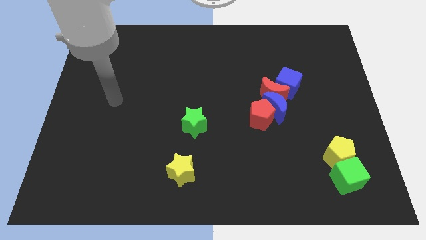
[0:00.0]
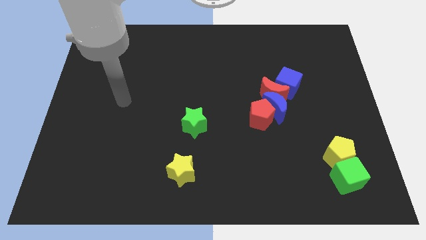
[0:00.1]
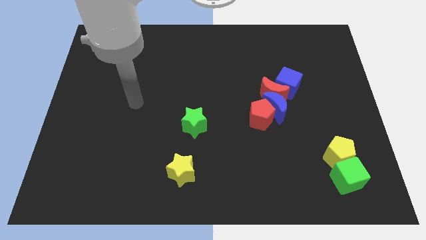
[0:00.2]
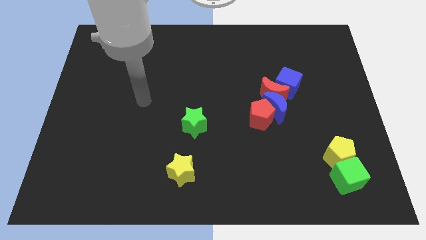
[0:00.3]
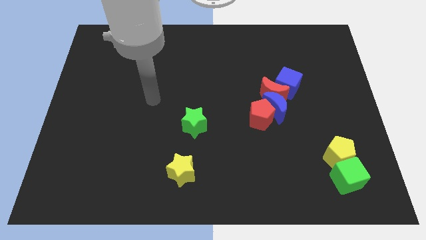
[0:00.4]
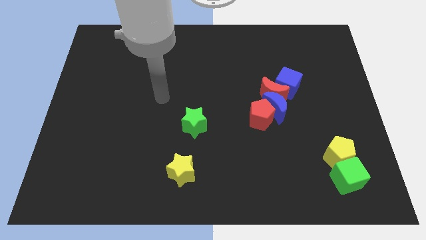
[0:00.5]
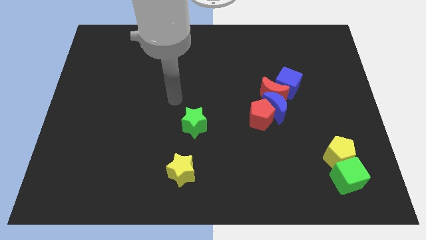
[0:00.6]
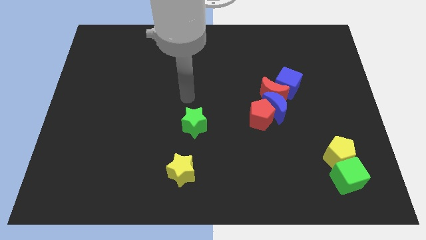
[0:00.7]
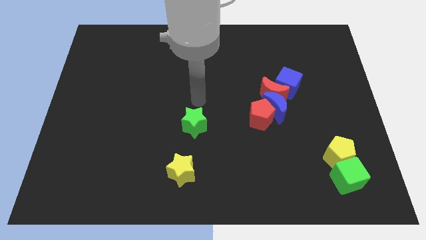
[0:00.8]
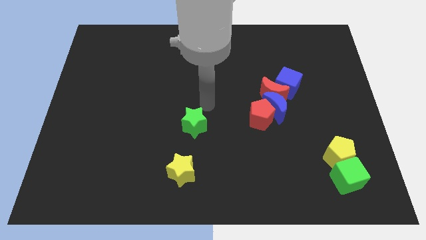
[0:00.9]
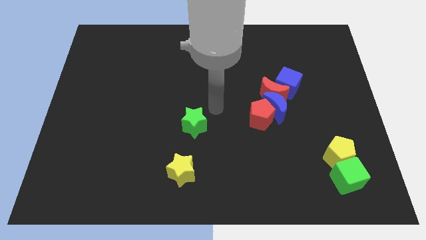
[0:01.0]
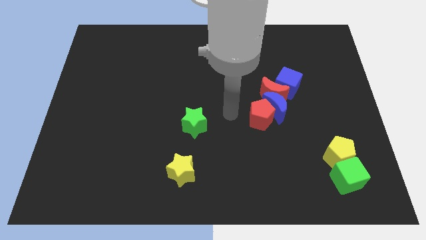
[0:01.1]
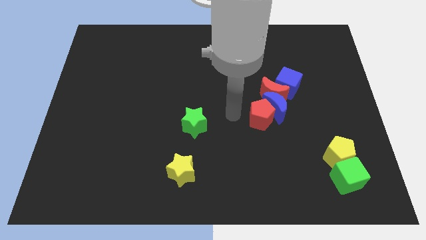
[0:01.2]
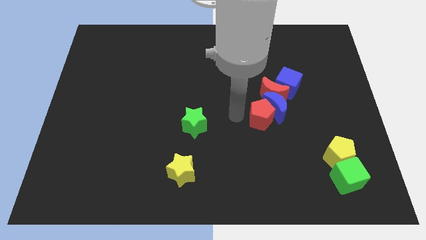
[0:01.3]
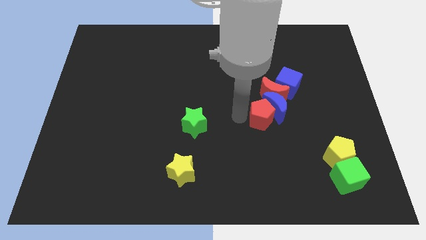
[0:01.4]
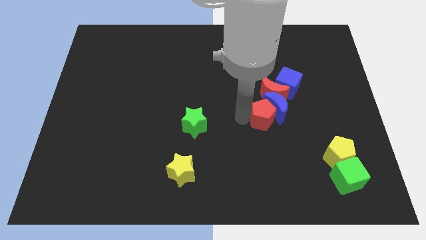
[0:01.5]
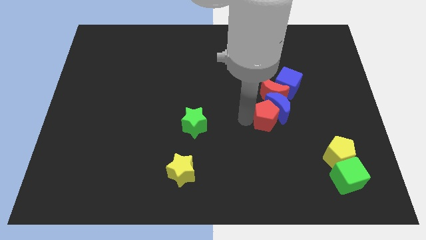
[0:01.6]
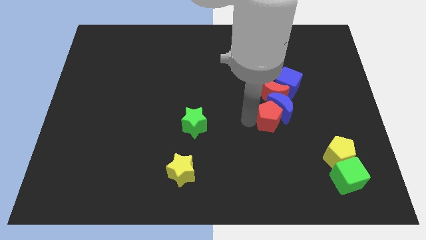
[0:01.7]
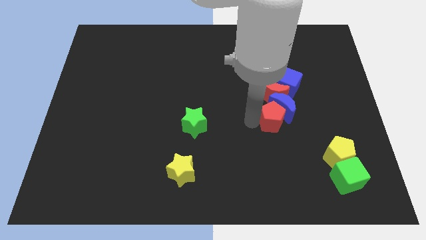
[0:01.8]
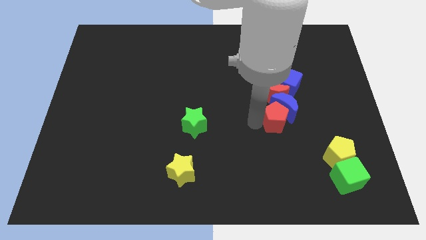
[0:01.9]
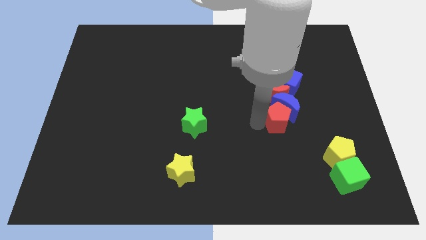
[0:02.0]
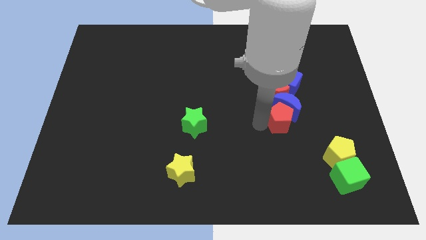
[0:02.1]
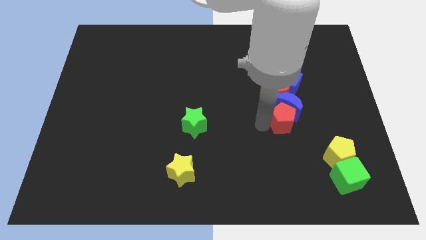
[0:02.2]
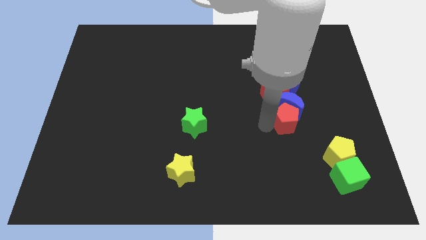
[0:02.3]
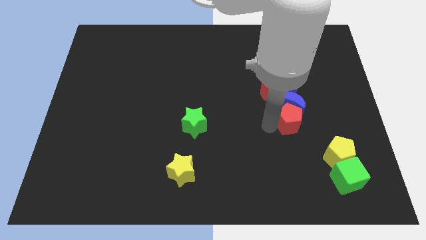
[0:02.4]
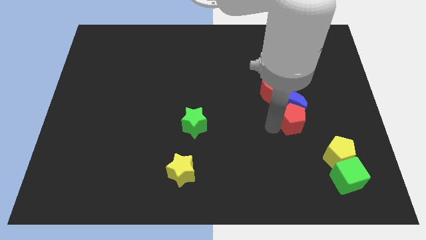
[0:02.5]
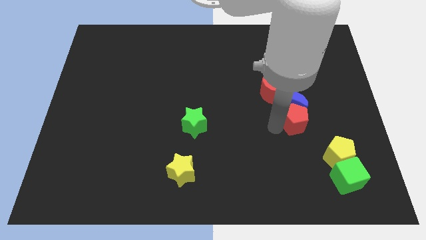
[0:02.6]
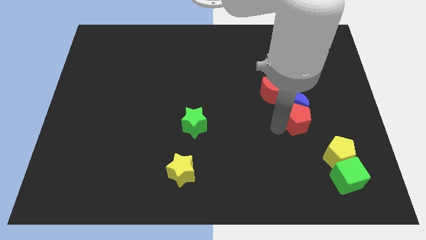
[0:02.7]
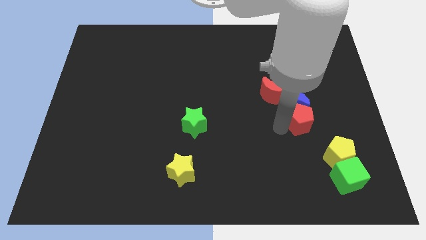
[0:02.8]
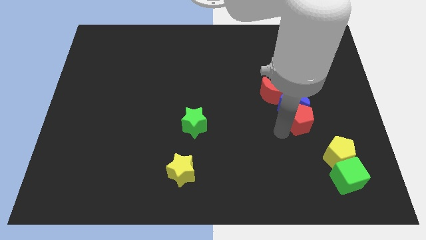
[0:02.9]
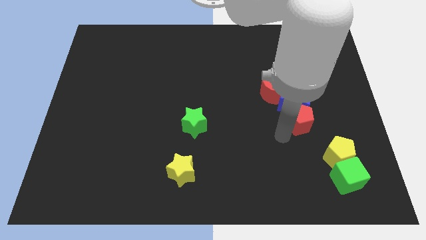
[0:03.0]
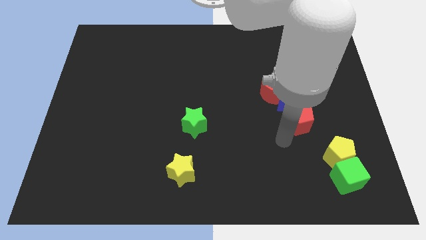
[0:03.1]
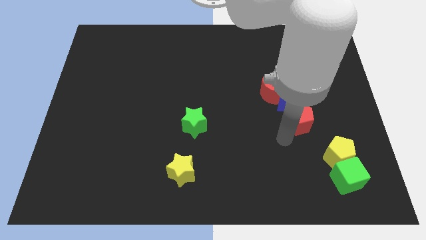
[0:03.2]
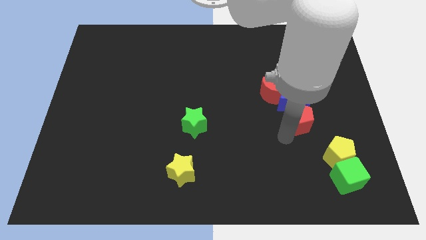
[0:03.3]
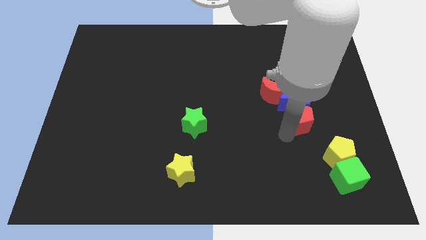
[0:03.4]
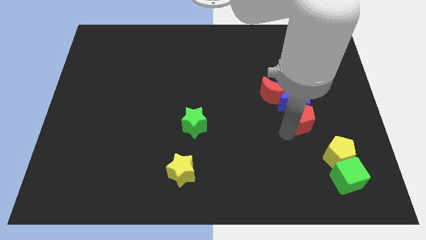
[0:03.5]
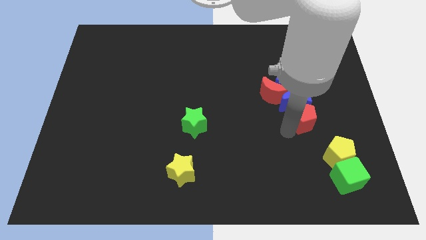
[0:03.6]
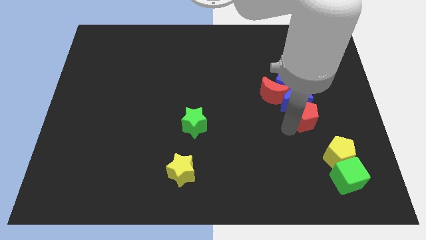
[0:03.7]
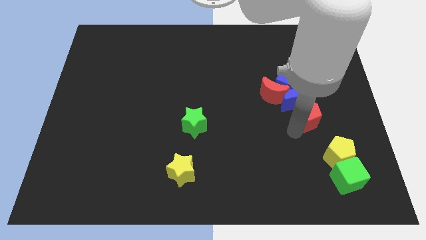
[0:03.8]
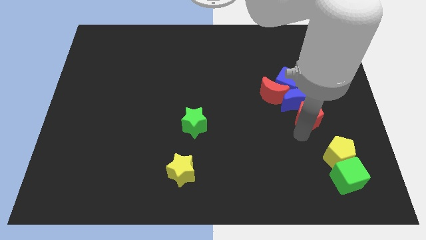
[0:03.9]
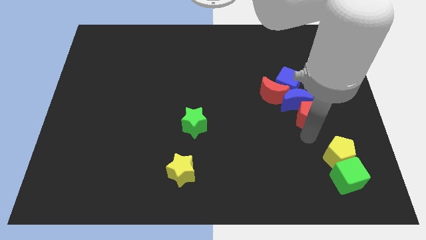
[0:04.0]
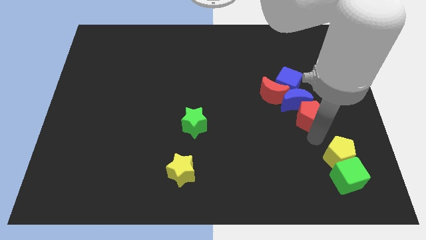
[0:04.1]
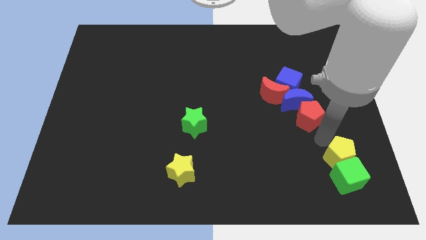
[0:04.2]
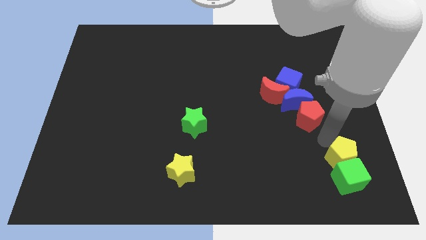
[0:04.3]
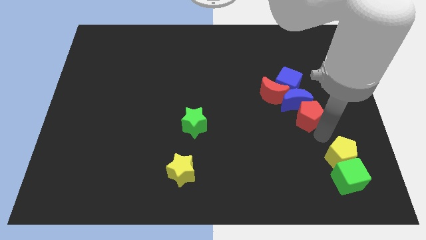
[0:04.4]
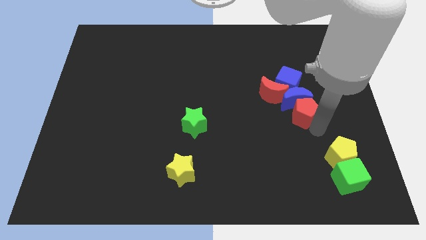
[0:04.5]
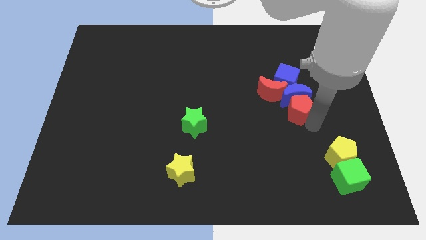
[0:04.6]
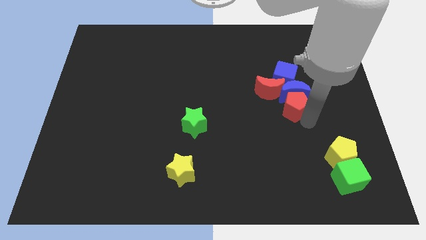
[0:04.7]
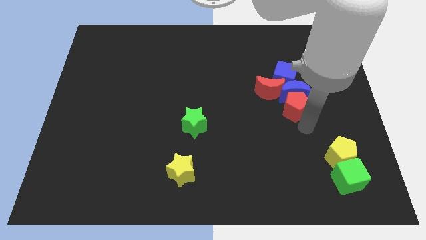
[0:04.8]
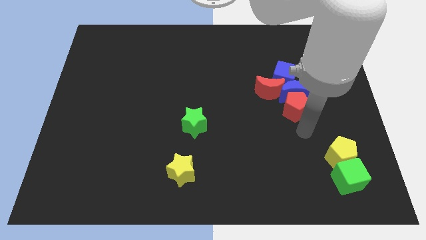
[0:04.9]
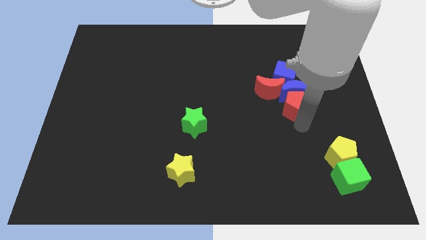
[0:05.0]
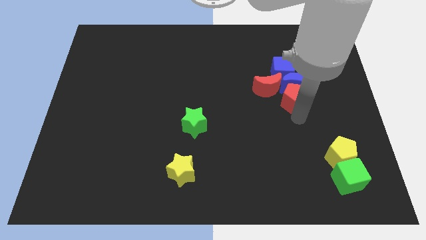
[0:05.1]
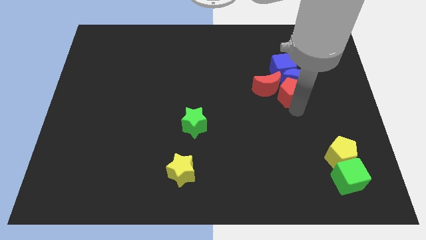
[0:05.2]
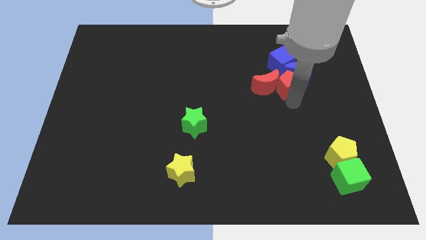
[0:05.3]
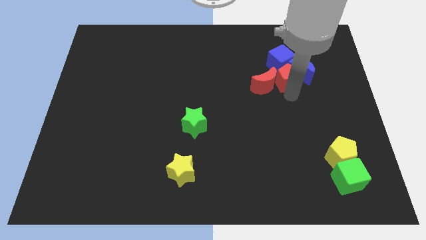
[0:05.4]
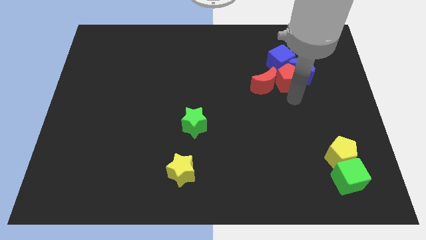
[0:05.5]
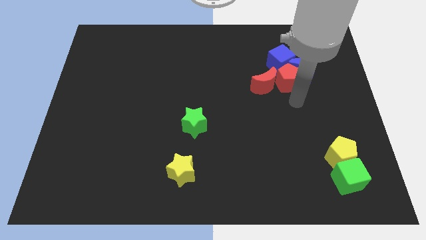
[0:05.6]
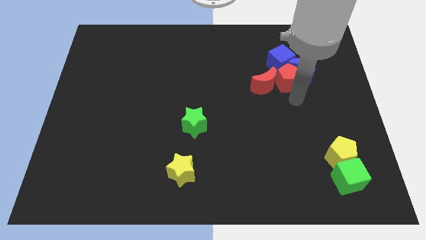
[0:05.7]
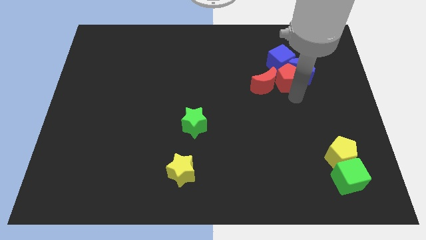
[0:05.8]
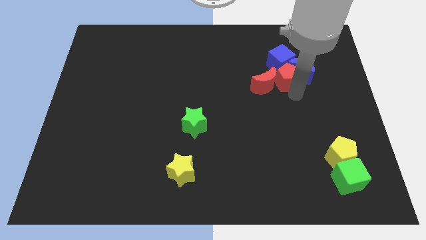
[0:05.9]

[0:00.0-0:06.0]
move the red pentagon next to the blue cube

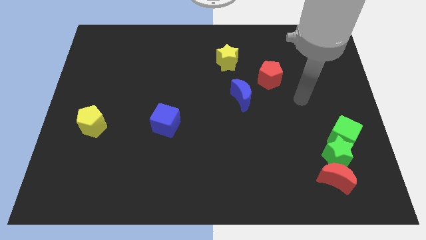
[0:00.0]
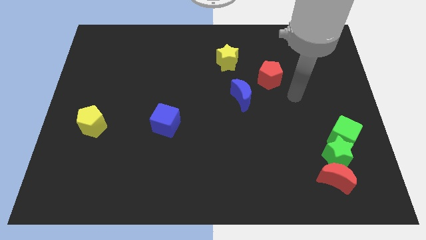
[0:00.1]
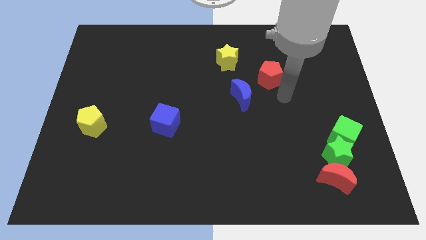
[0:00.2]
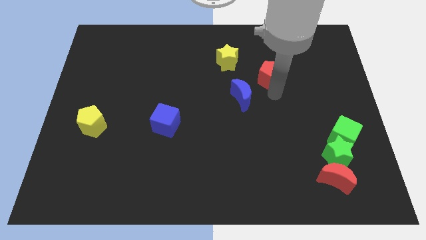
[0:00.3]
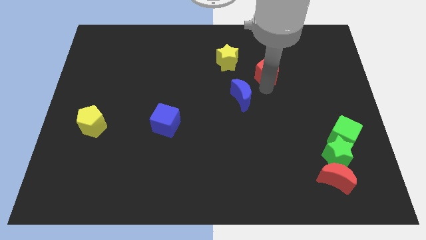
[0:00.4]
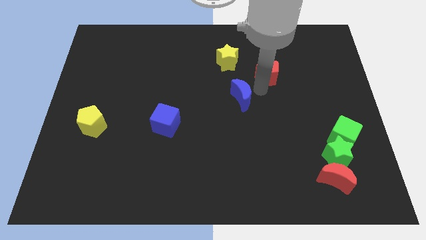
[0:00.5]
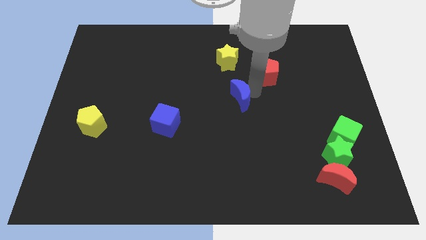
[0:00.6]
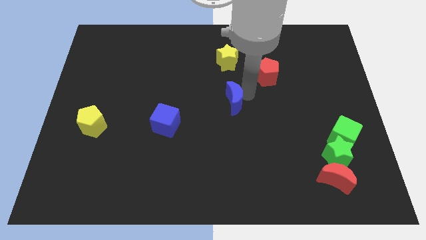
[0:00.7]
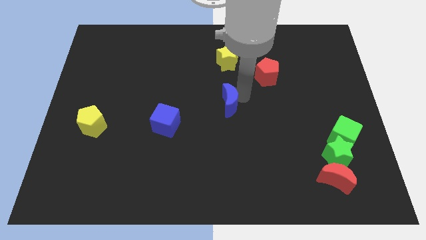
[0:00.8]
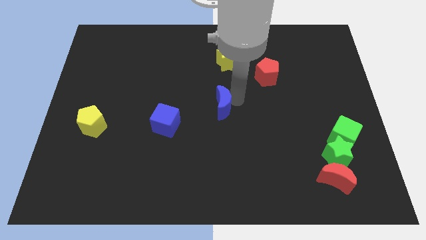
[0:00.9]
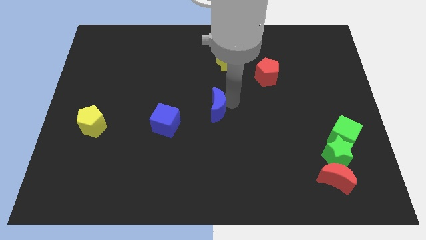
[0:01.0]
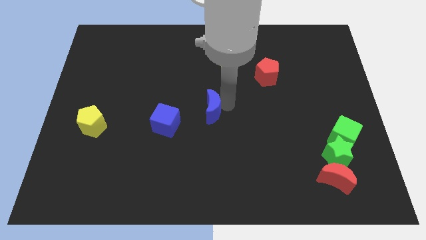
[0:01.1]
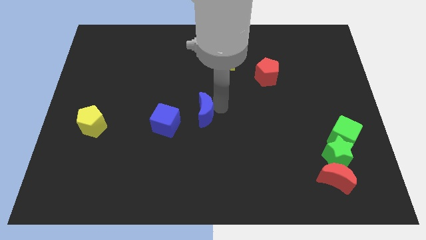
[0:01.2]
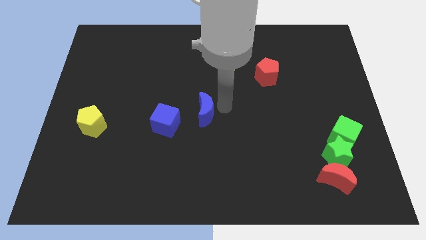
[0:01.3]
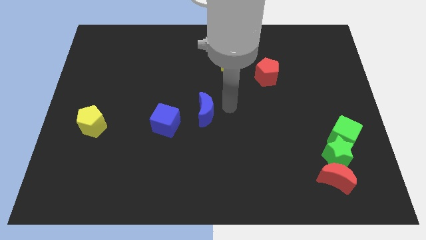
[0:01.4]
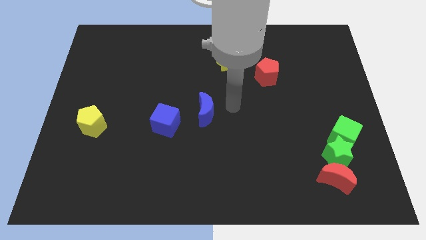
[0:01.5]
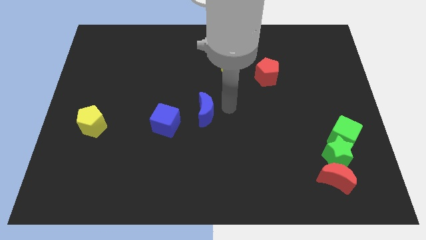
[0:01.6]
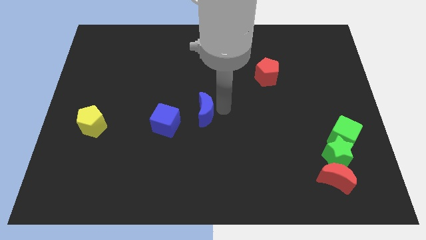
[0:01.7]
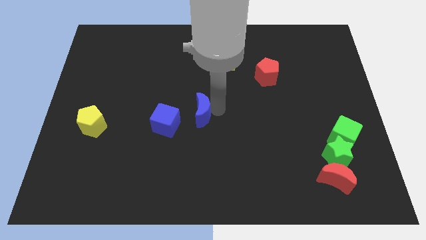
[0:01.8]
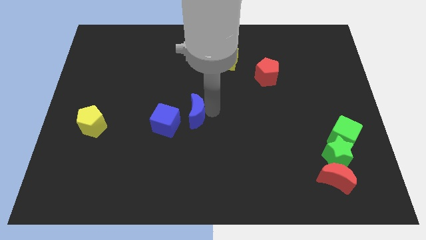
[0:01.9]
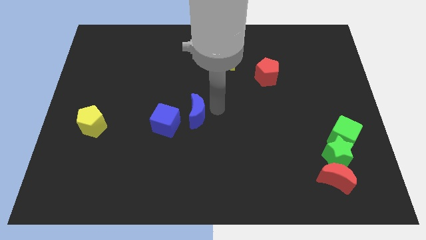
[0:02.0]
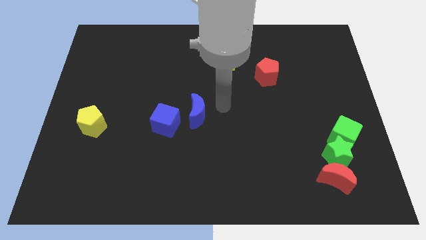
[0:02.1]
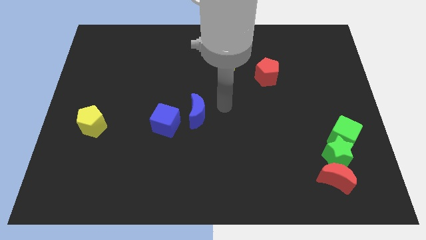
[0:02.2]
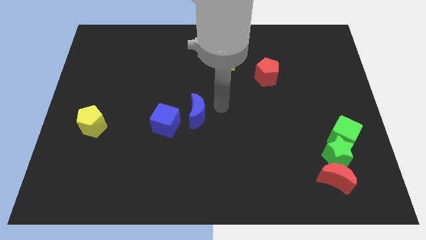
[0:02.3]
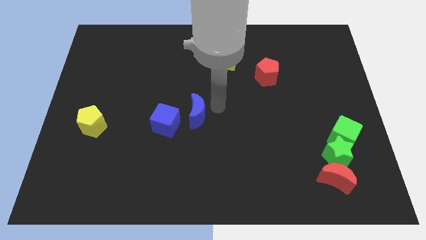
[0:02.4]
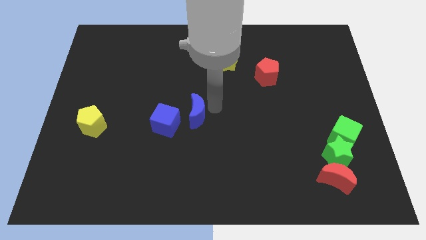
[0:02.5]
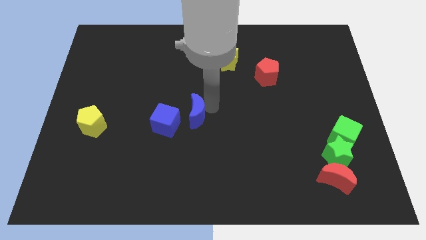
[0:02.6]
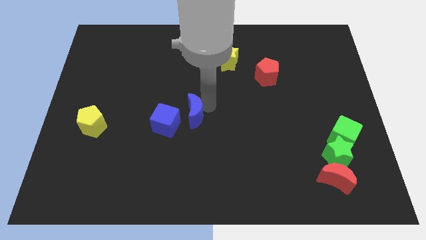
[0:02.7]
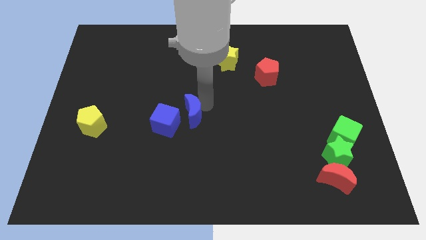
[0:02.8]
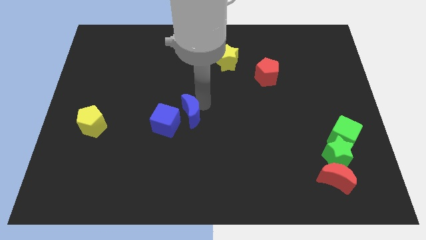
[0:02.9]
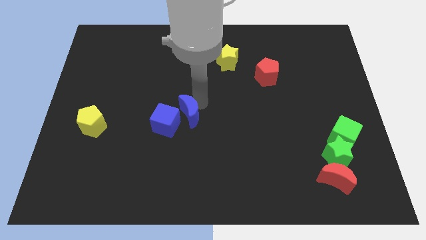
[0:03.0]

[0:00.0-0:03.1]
push the blue moon close to the blue cube
